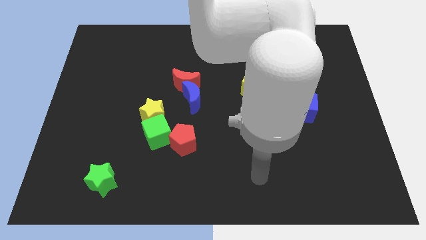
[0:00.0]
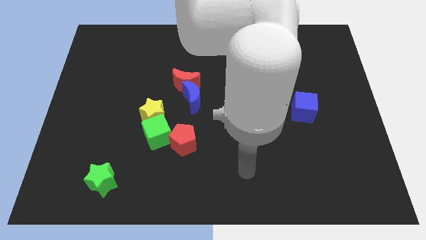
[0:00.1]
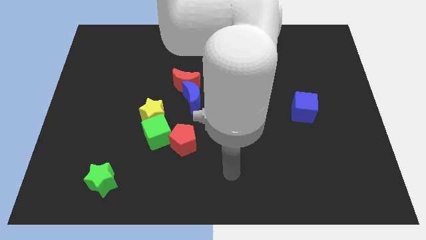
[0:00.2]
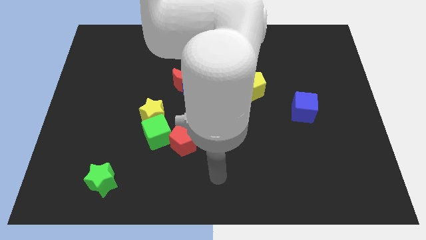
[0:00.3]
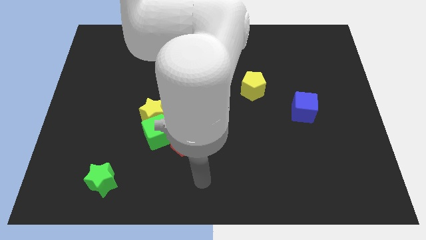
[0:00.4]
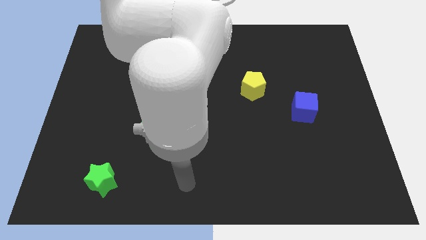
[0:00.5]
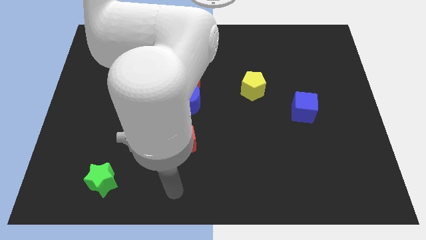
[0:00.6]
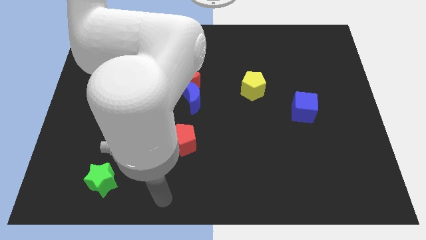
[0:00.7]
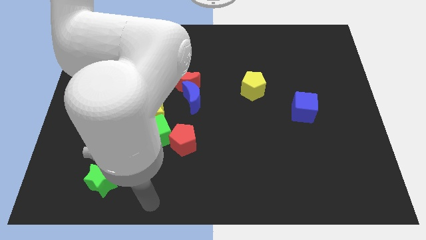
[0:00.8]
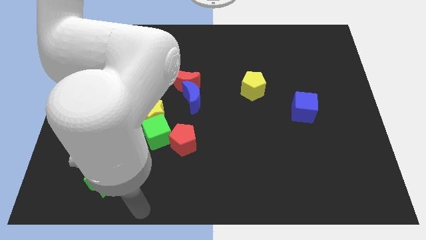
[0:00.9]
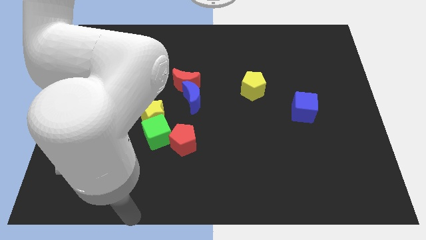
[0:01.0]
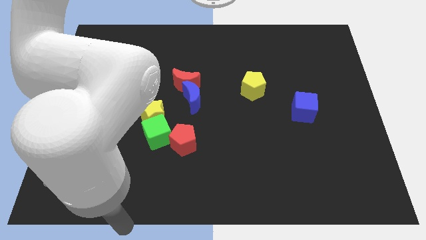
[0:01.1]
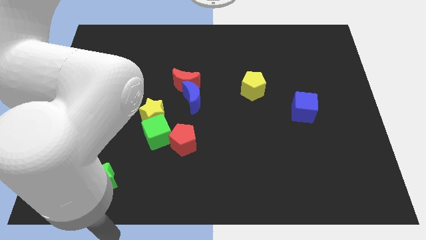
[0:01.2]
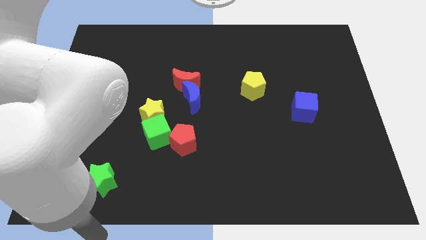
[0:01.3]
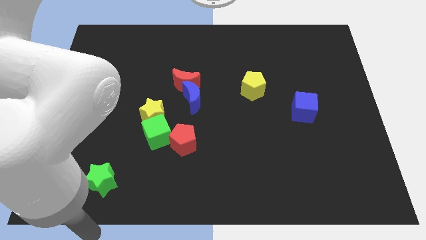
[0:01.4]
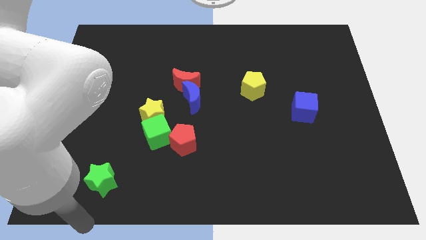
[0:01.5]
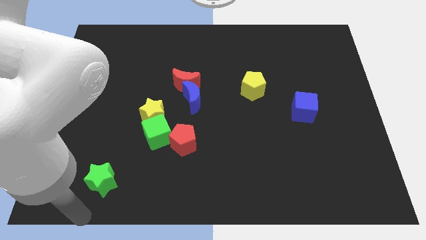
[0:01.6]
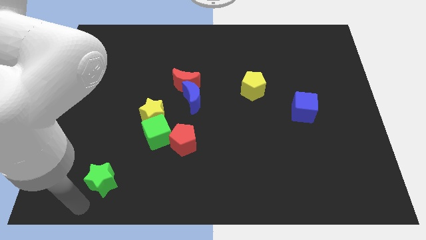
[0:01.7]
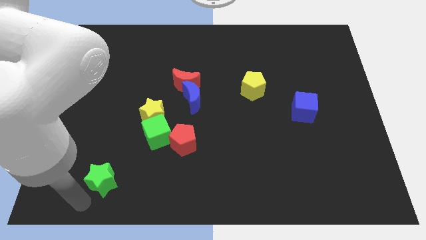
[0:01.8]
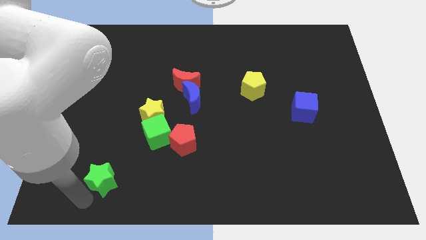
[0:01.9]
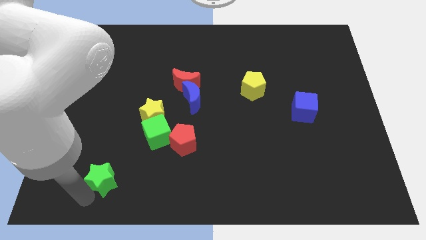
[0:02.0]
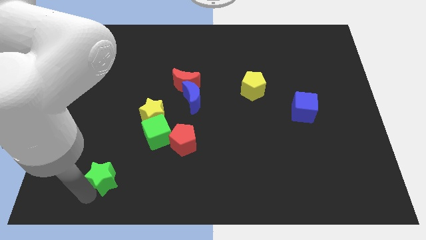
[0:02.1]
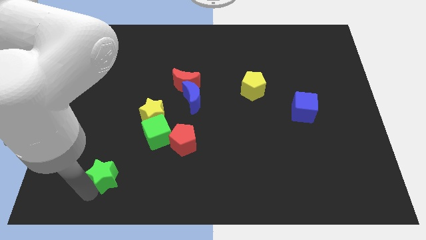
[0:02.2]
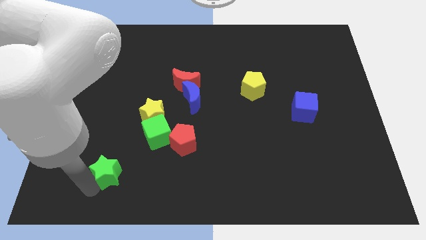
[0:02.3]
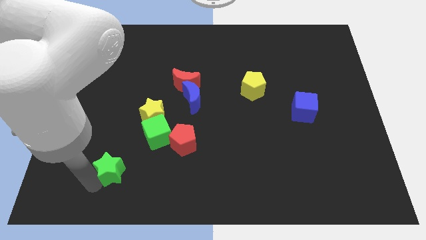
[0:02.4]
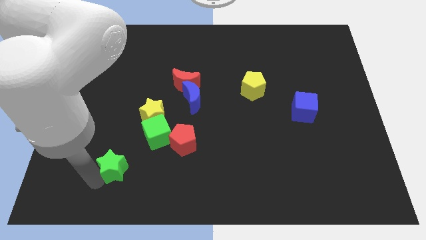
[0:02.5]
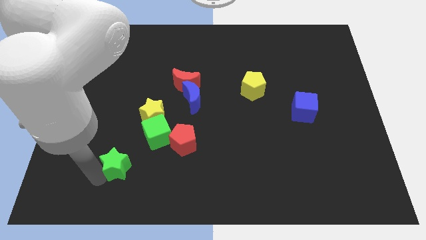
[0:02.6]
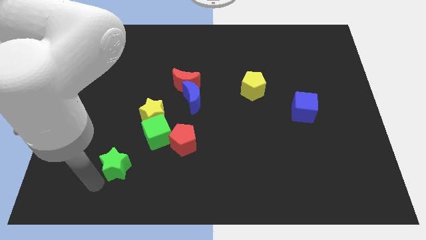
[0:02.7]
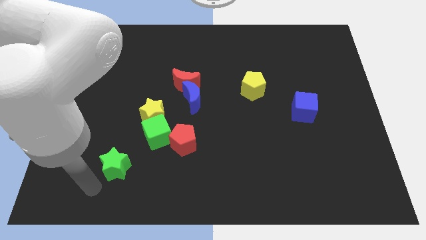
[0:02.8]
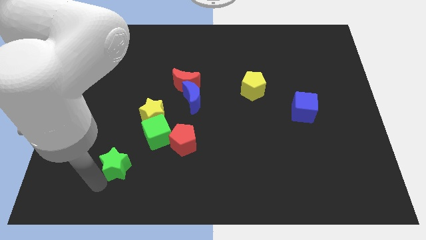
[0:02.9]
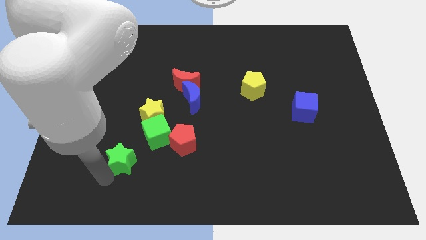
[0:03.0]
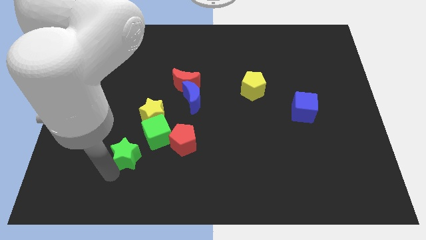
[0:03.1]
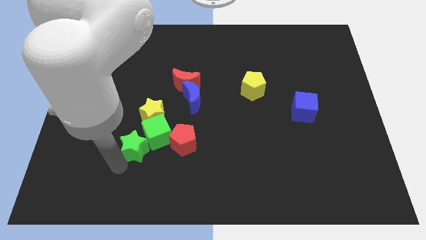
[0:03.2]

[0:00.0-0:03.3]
move the green star close to the green cube

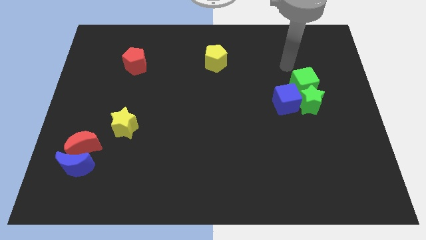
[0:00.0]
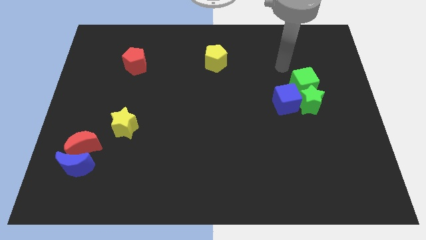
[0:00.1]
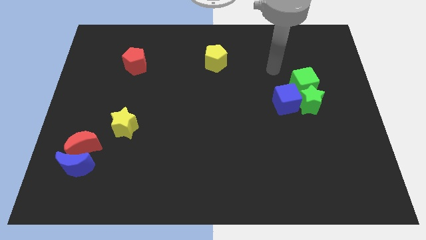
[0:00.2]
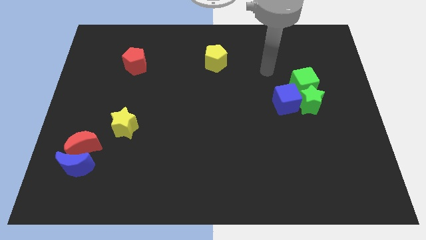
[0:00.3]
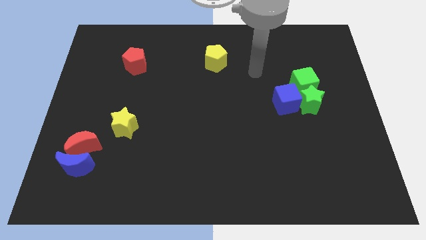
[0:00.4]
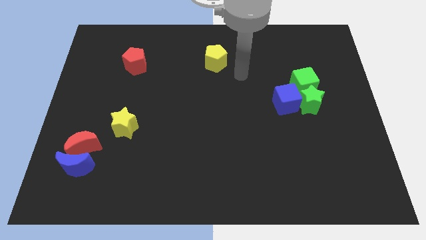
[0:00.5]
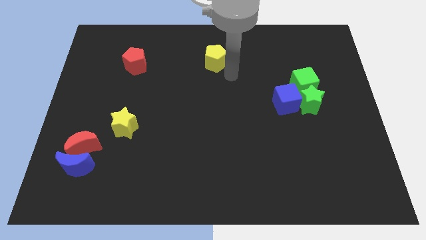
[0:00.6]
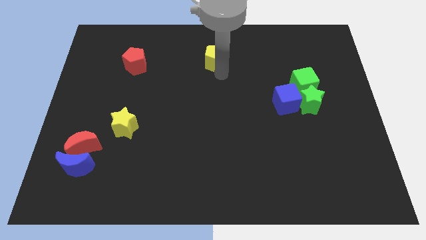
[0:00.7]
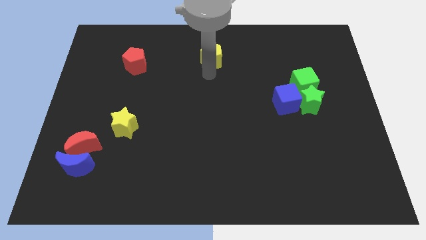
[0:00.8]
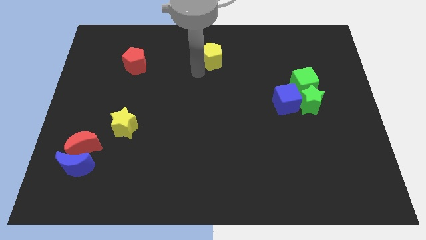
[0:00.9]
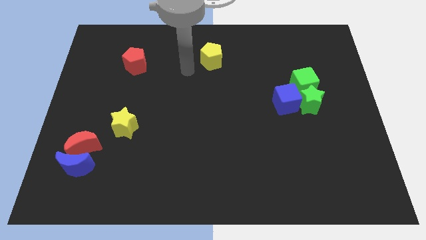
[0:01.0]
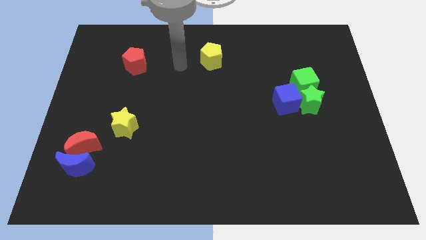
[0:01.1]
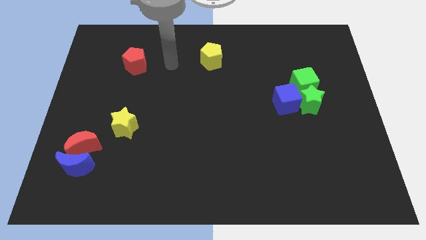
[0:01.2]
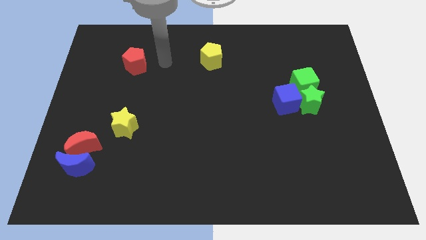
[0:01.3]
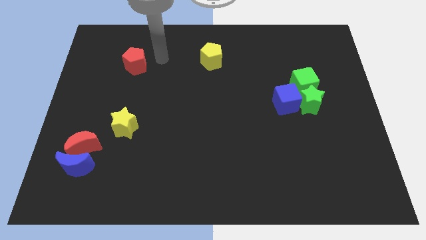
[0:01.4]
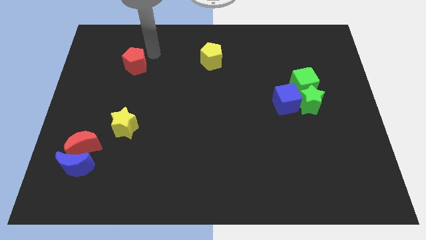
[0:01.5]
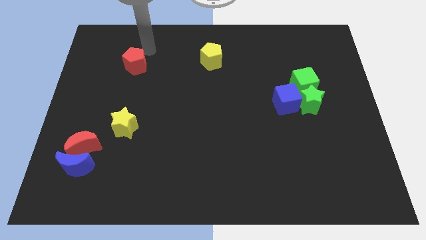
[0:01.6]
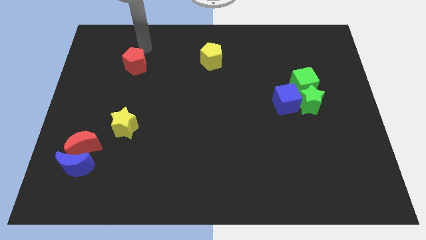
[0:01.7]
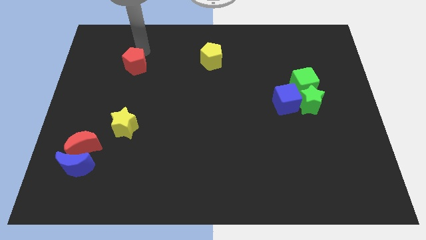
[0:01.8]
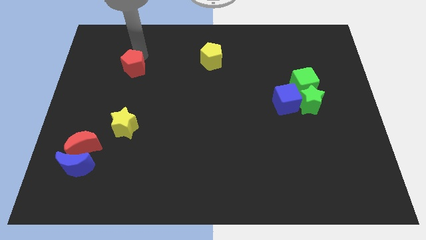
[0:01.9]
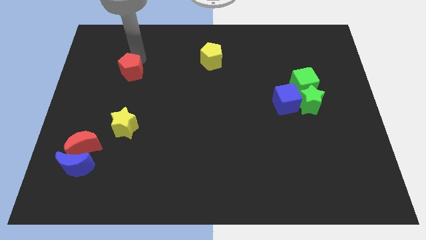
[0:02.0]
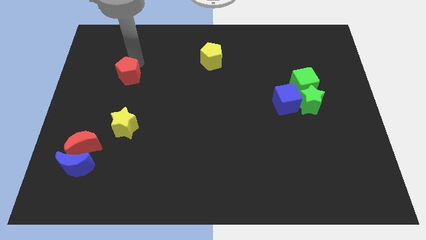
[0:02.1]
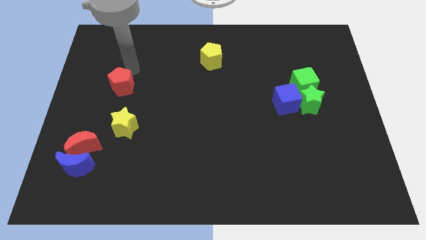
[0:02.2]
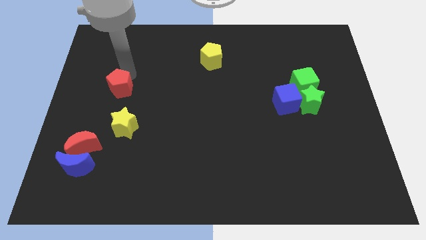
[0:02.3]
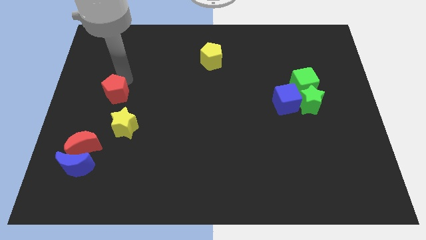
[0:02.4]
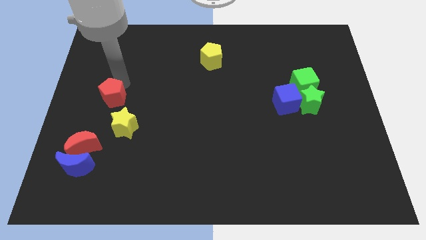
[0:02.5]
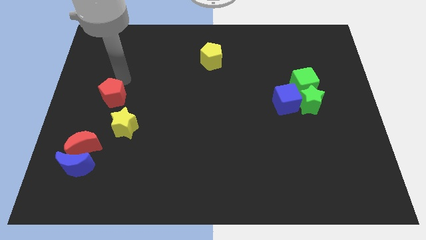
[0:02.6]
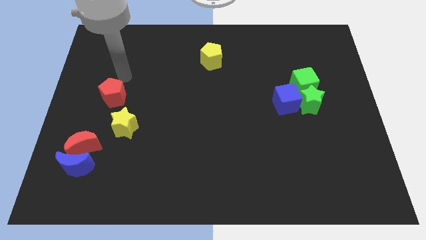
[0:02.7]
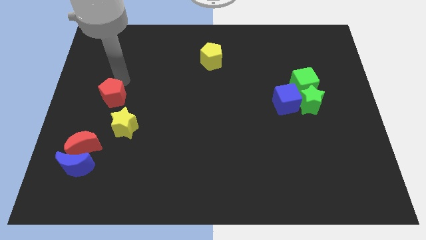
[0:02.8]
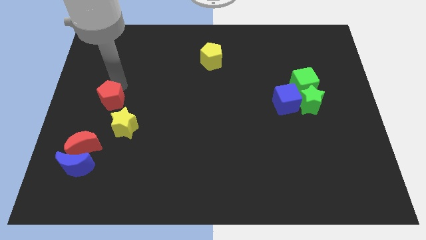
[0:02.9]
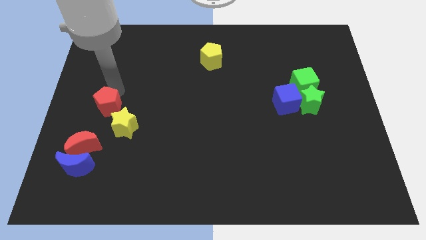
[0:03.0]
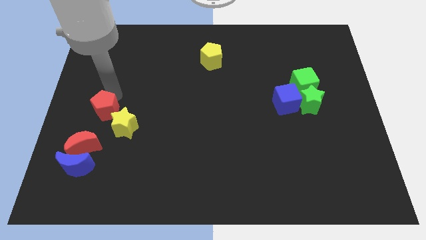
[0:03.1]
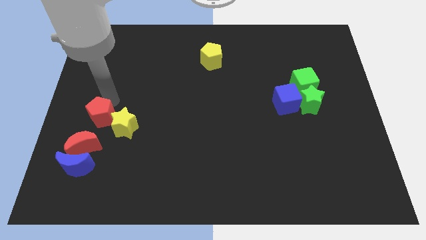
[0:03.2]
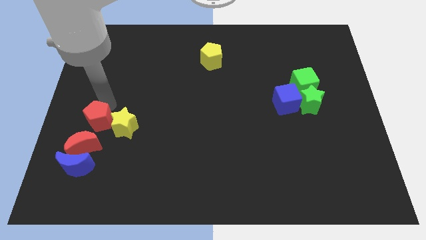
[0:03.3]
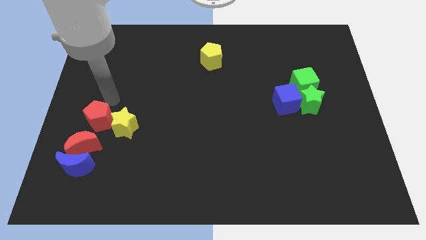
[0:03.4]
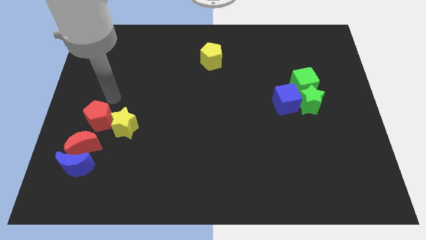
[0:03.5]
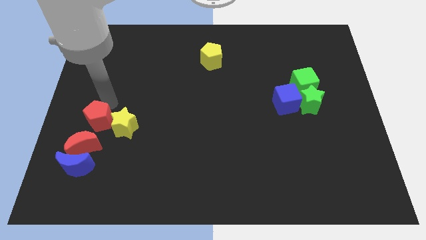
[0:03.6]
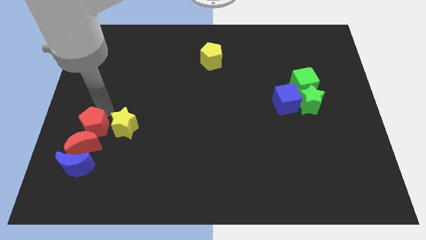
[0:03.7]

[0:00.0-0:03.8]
put the red pentagon towards the red moon

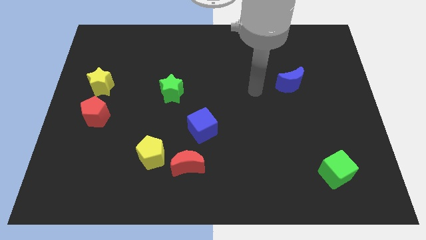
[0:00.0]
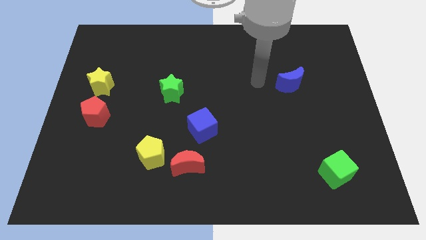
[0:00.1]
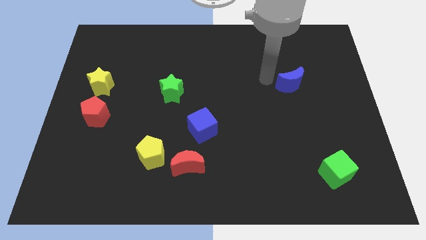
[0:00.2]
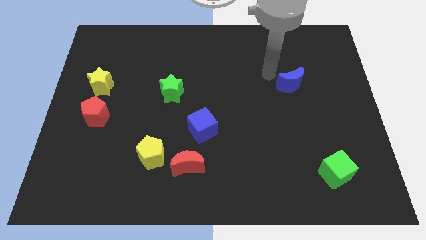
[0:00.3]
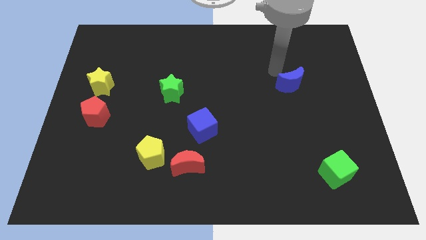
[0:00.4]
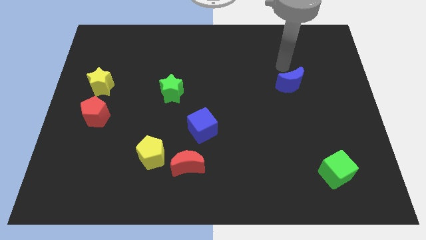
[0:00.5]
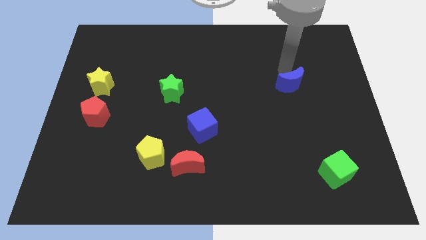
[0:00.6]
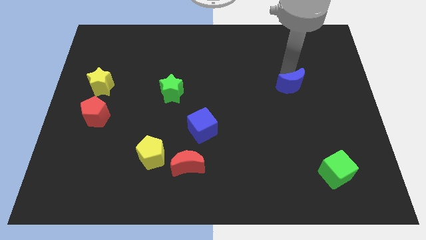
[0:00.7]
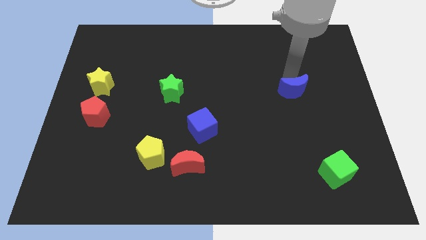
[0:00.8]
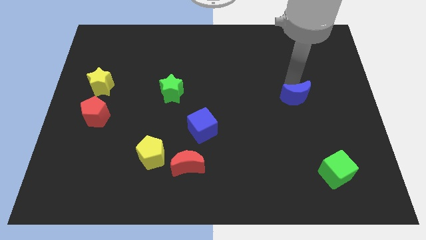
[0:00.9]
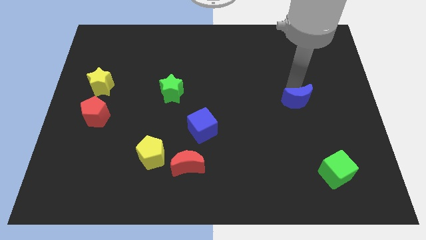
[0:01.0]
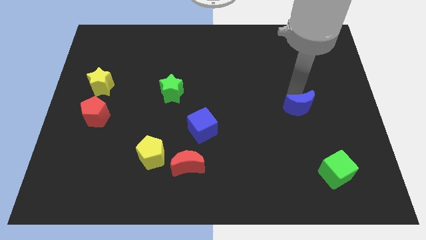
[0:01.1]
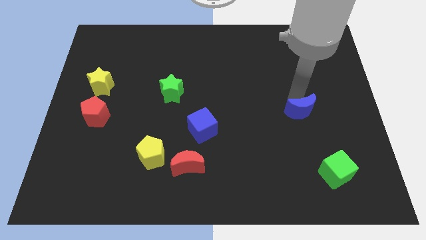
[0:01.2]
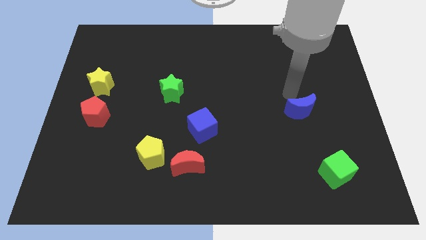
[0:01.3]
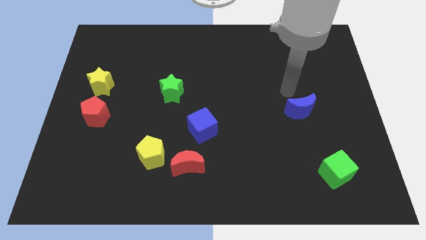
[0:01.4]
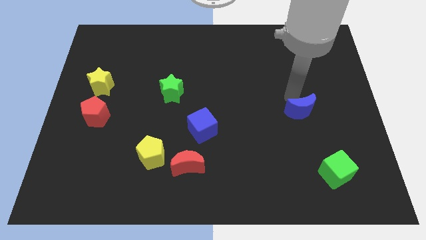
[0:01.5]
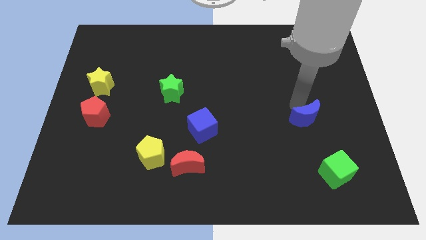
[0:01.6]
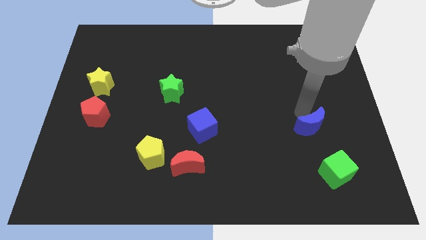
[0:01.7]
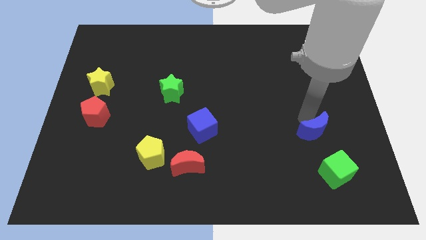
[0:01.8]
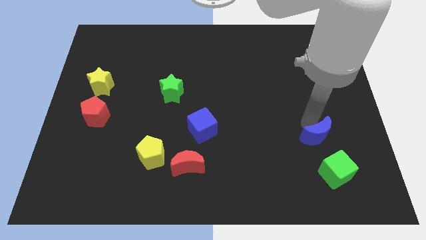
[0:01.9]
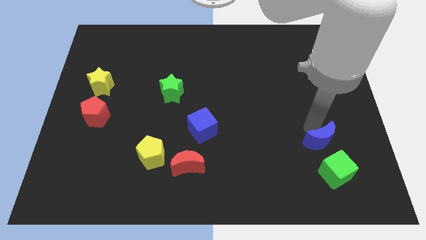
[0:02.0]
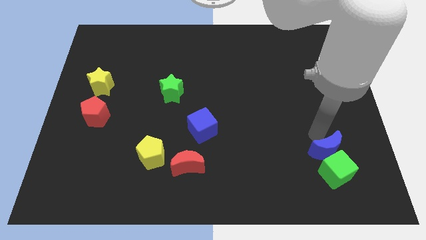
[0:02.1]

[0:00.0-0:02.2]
put the blue moon next to the green cube
